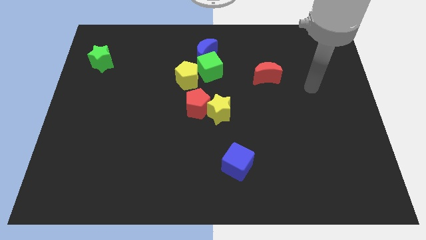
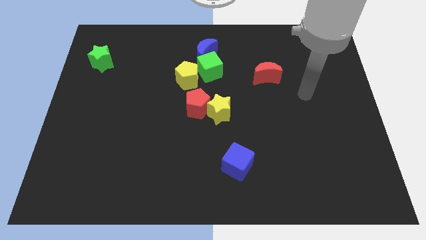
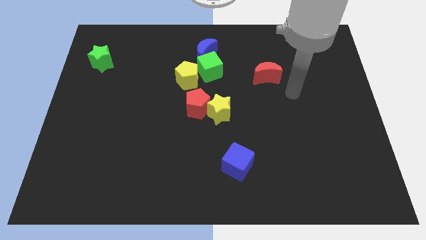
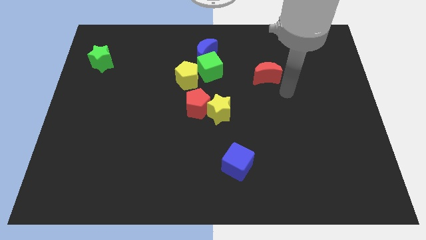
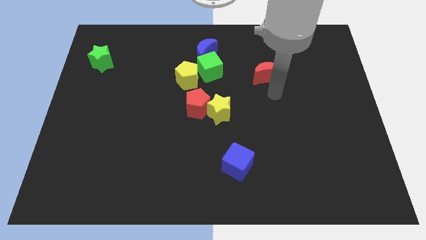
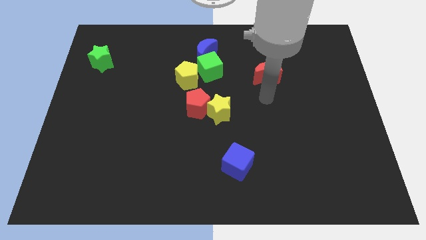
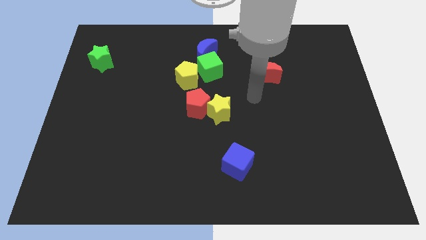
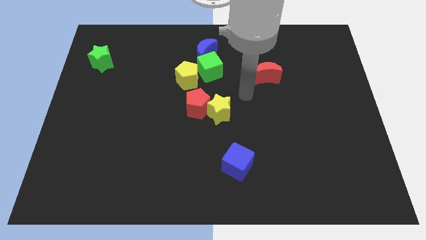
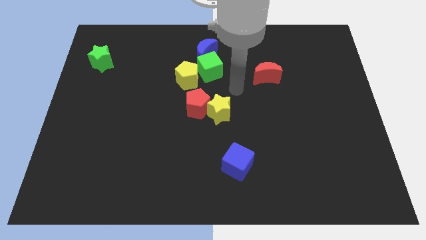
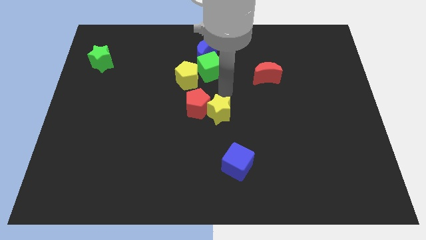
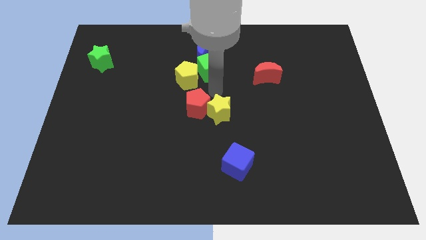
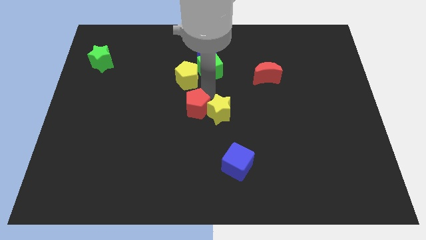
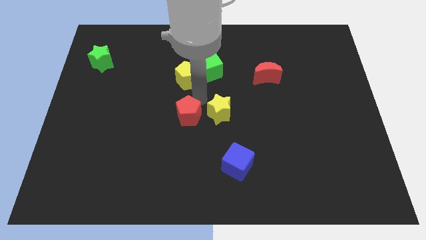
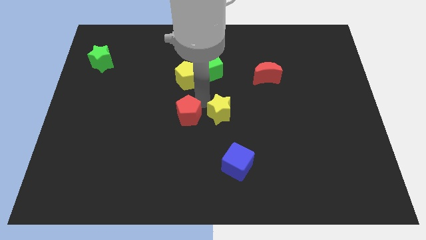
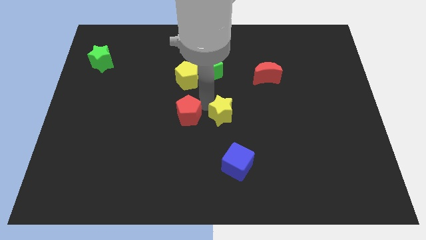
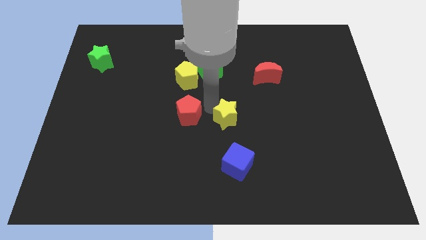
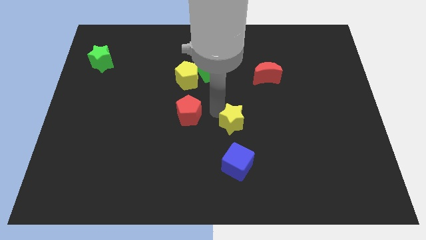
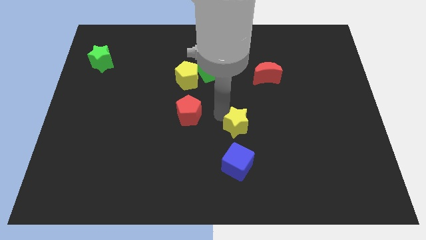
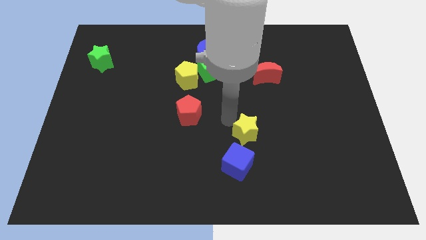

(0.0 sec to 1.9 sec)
slightly push the yellow star down and then to the right

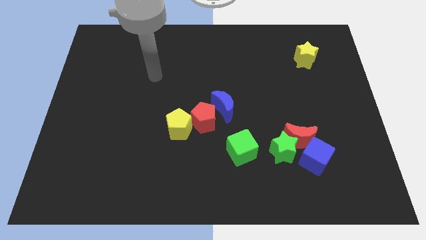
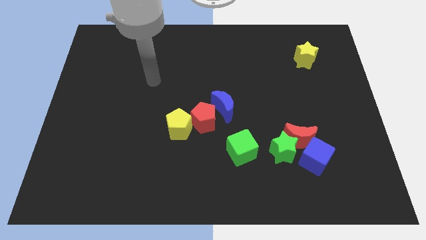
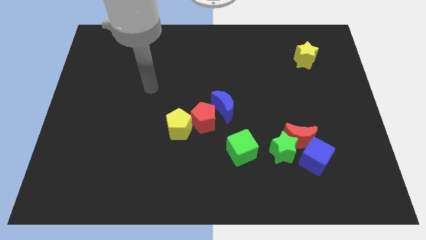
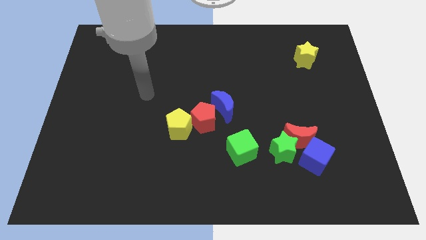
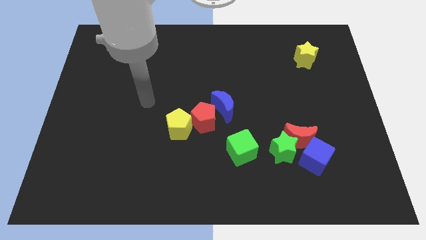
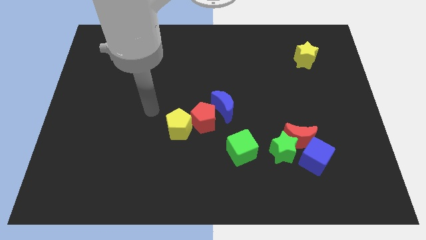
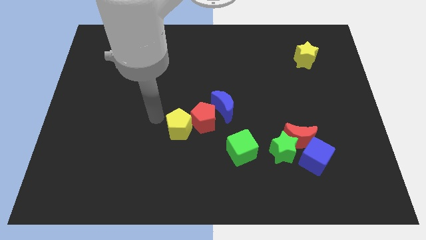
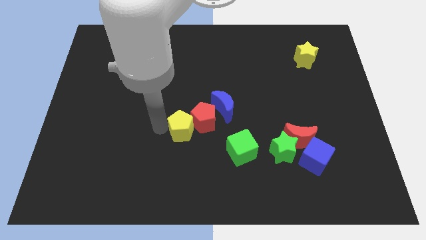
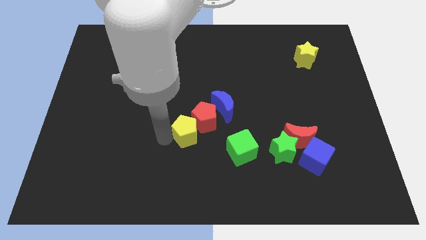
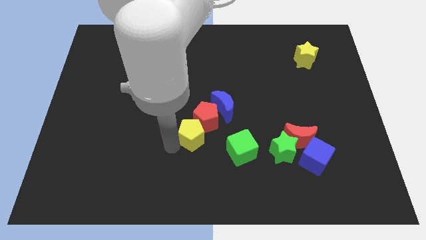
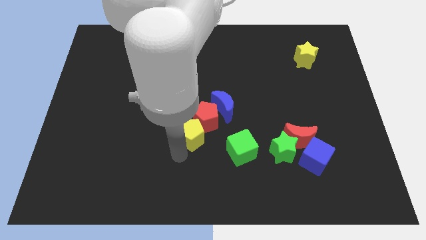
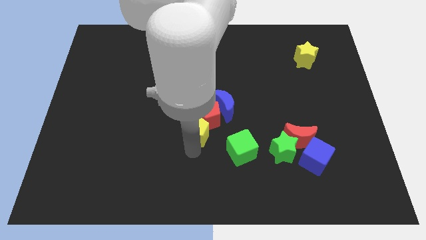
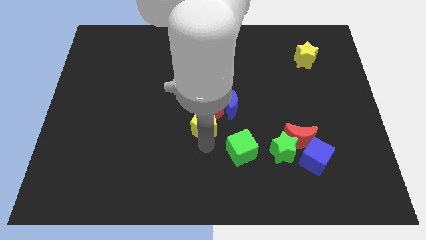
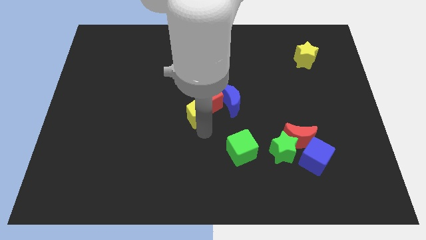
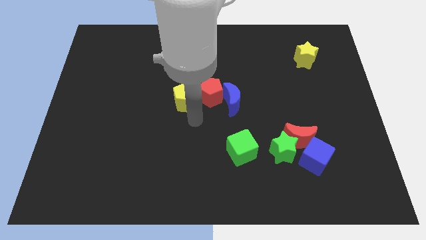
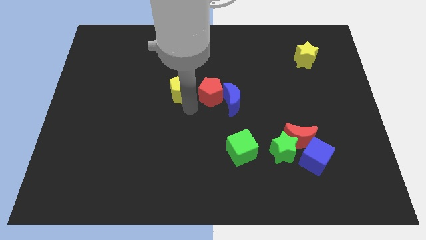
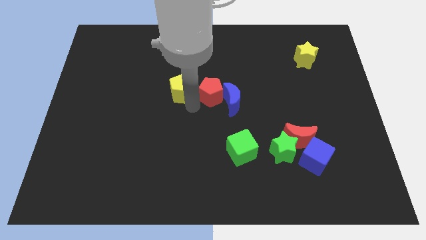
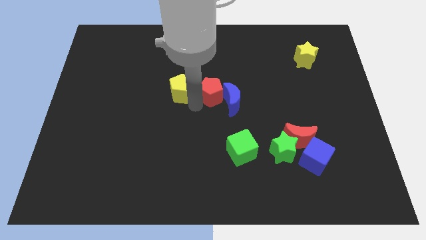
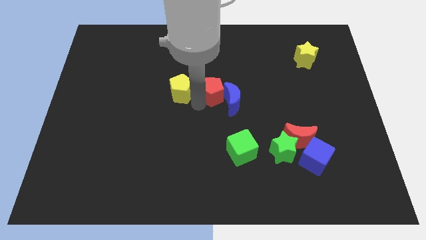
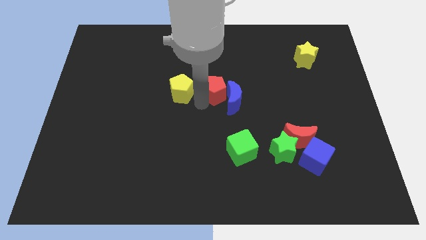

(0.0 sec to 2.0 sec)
slide the red pentagon diagonally upwards and to the right somewhat

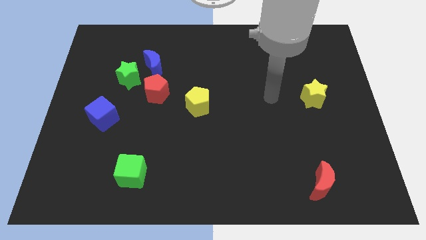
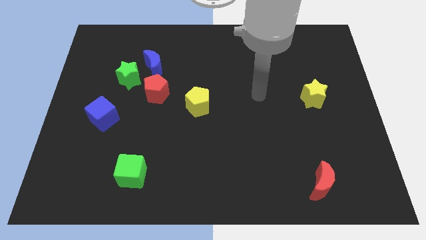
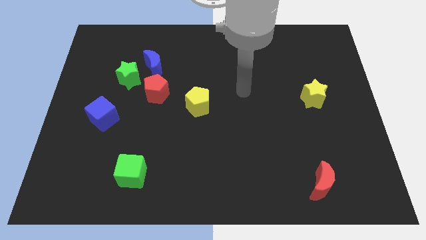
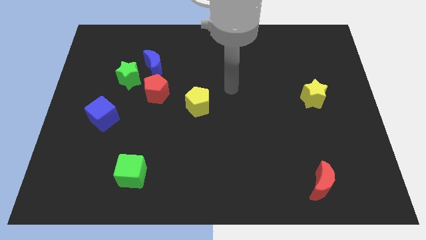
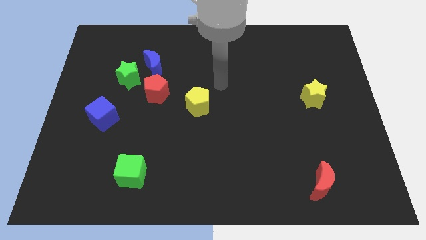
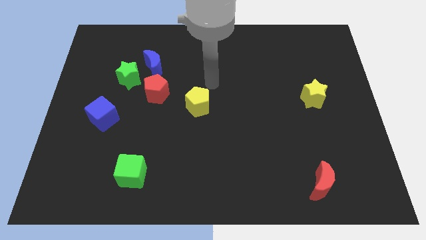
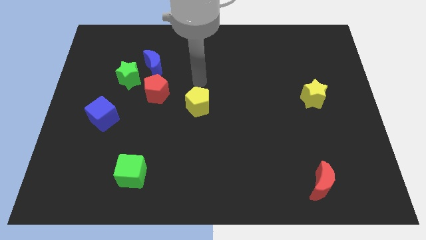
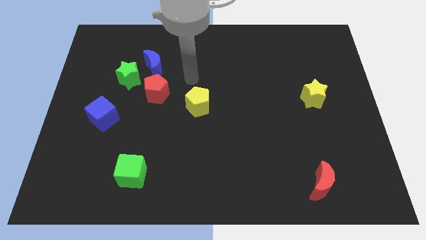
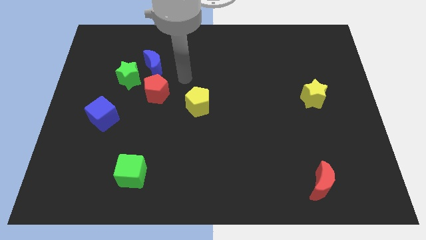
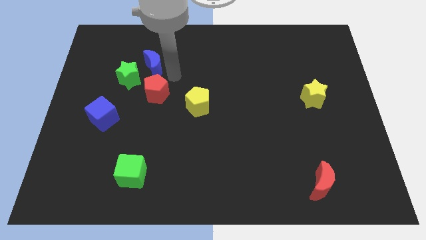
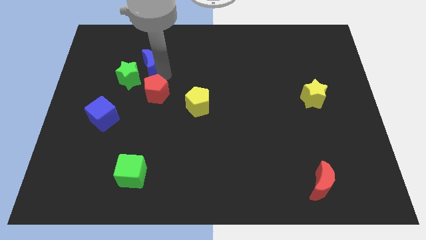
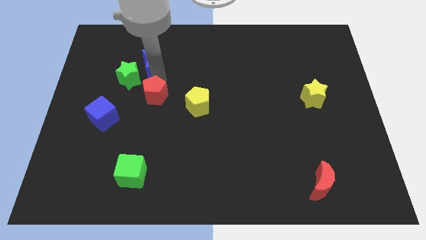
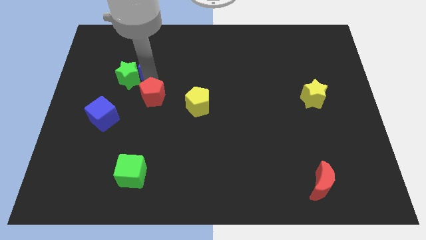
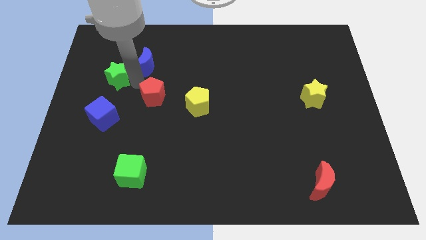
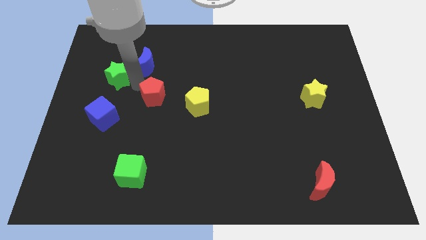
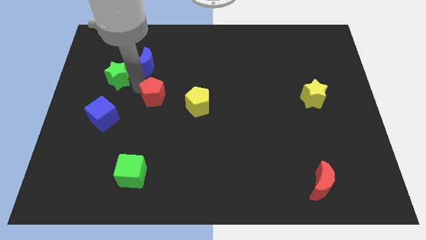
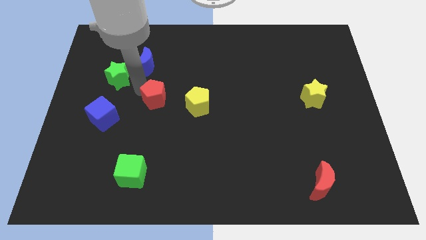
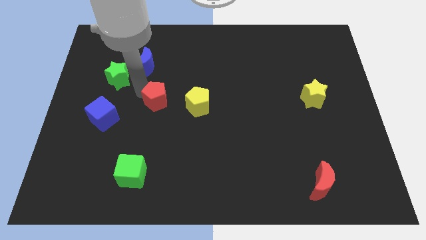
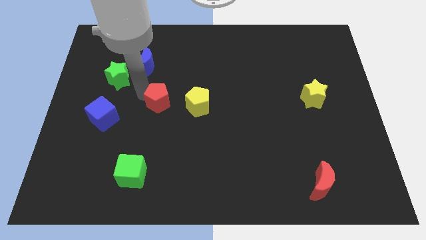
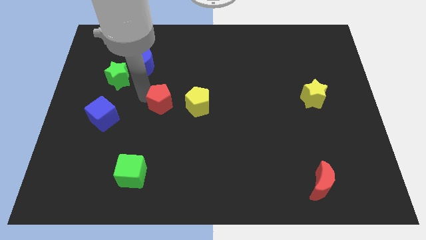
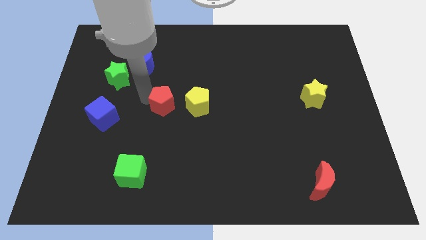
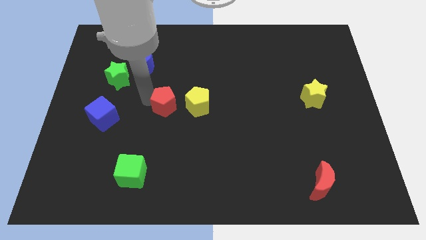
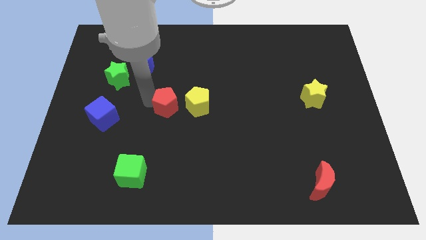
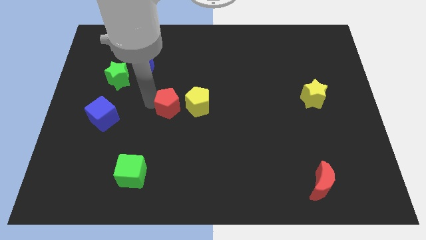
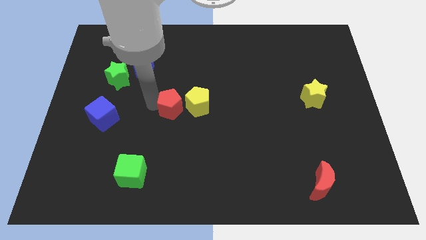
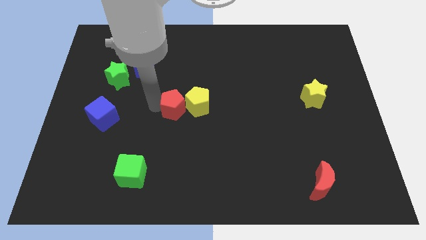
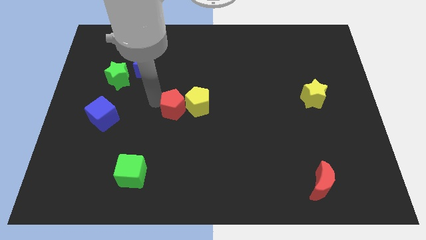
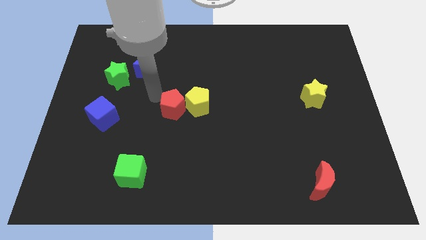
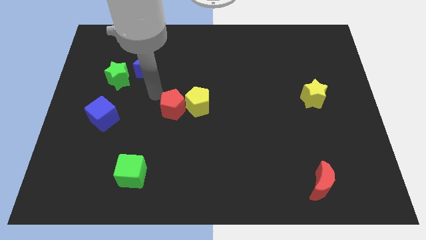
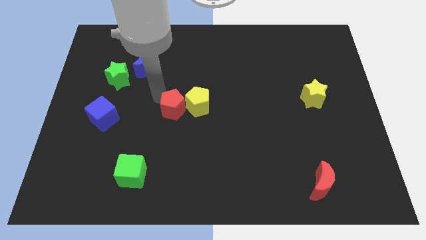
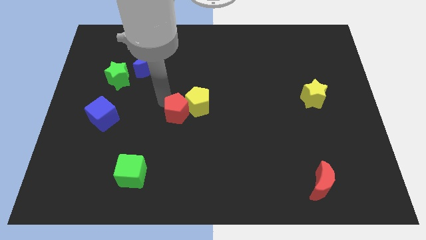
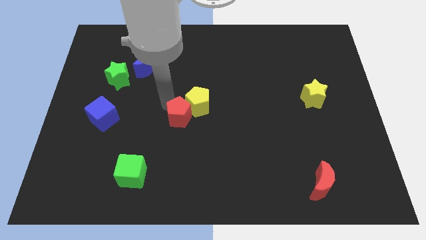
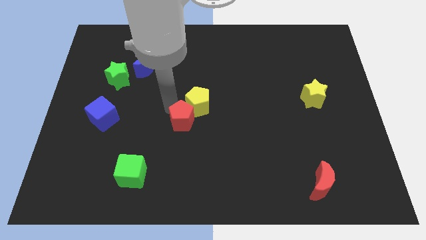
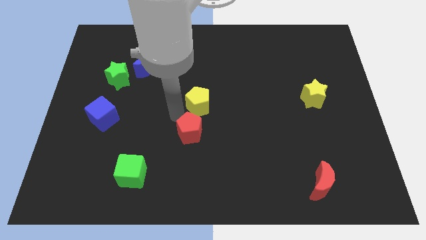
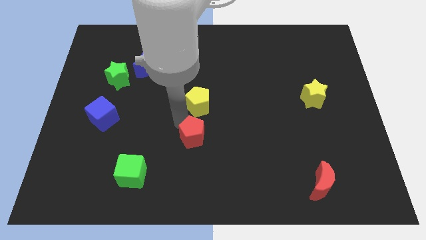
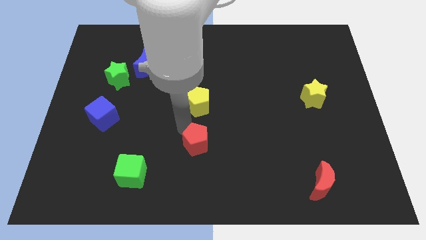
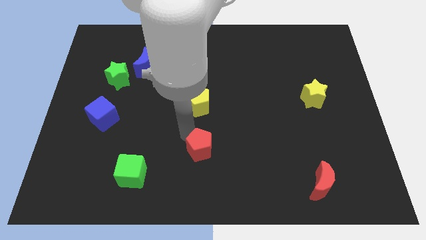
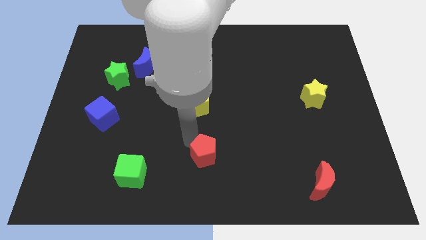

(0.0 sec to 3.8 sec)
move the red pentagon down and then right

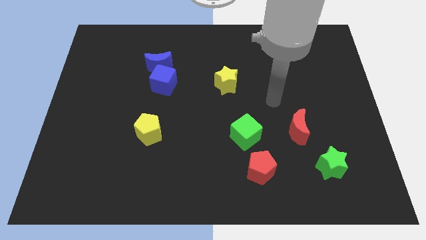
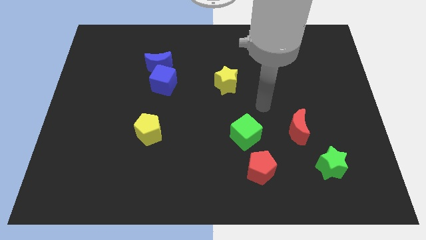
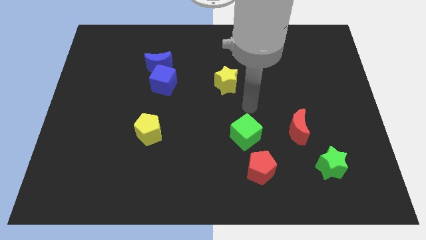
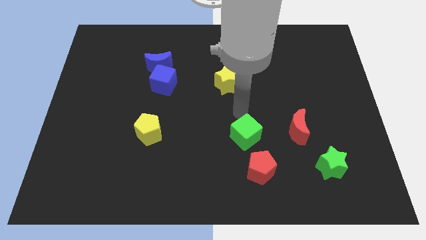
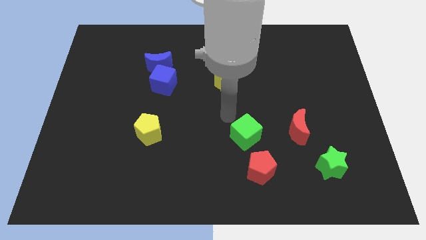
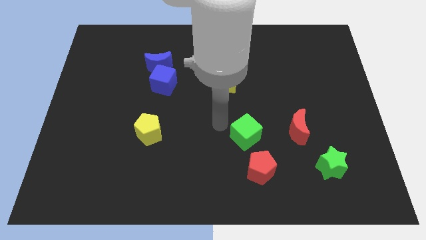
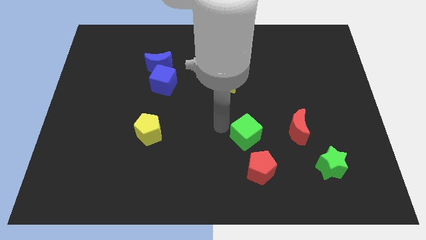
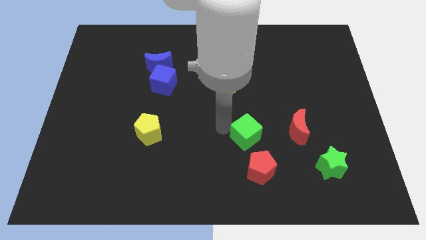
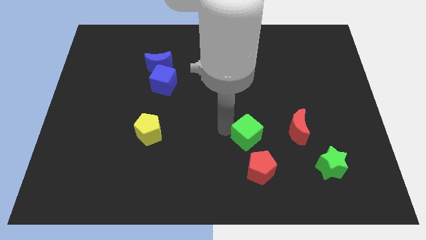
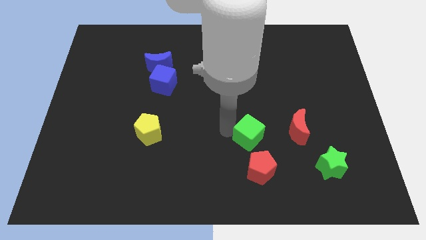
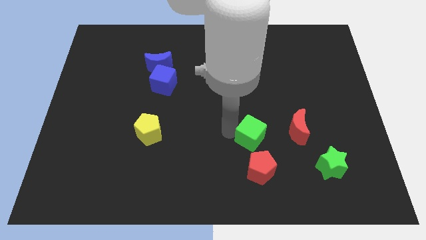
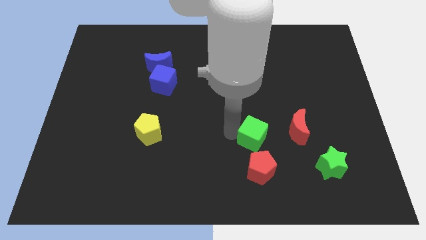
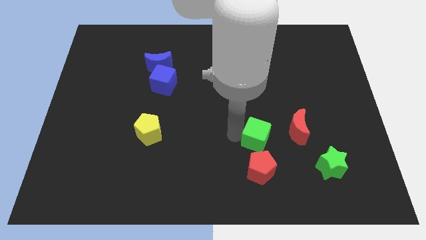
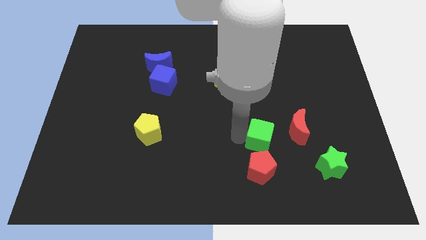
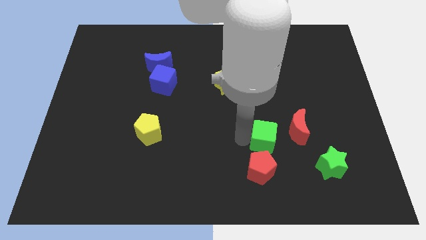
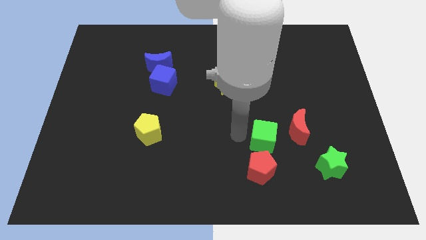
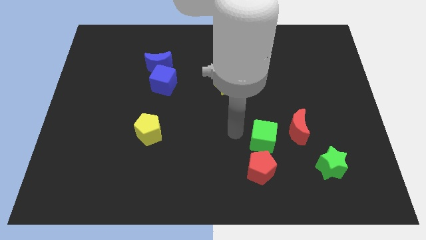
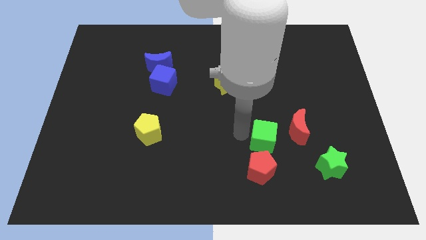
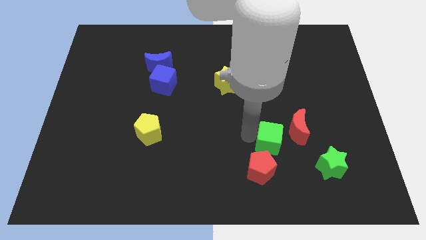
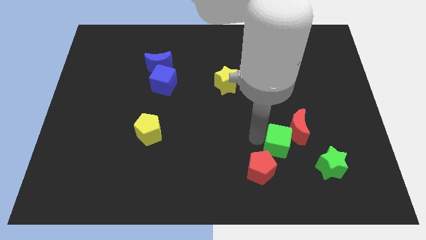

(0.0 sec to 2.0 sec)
move the green cube a bit to the right
